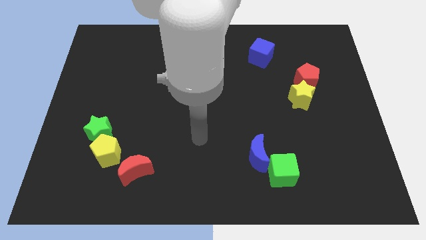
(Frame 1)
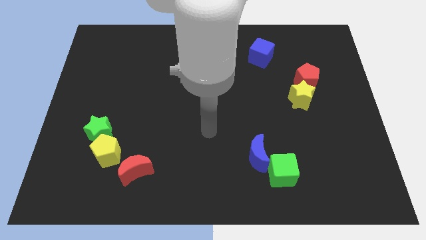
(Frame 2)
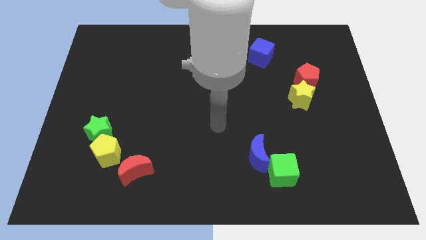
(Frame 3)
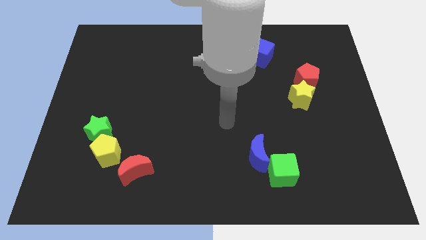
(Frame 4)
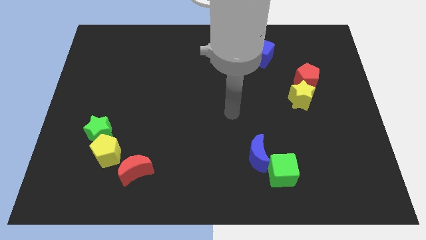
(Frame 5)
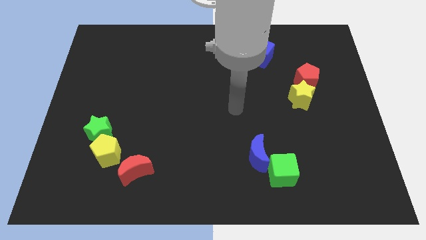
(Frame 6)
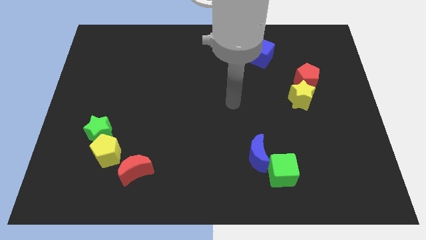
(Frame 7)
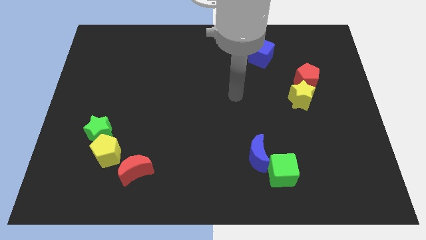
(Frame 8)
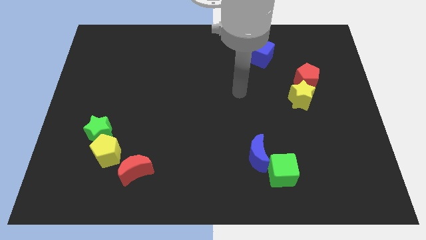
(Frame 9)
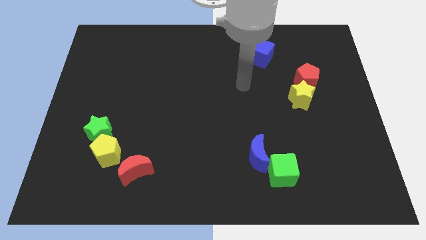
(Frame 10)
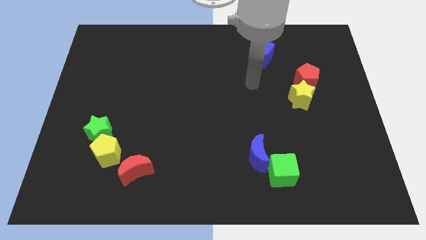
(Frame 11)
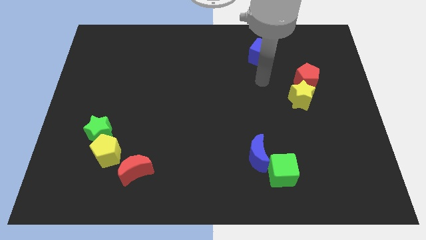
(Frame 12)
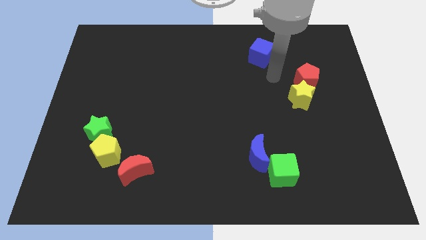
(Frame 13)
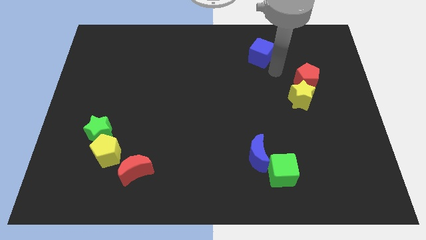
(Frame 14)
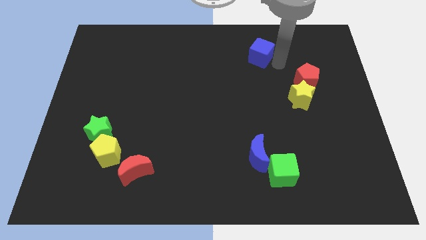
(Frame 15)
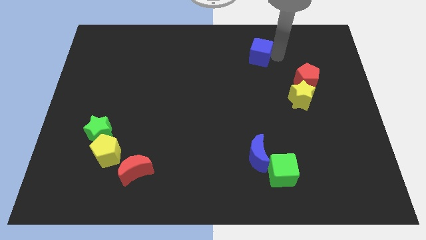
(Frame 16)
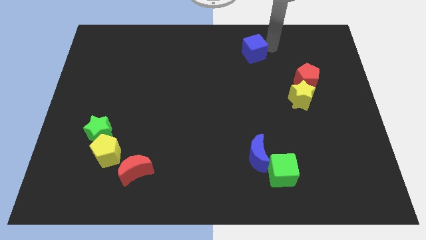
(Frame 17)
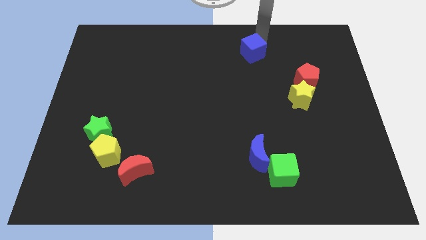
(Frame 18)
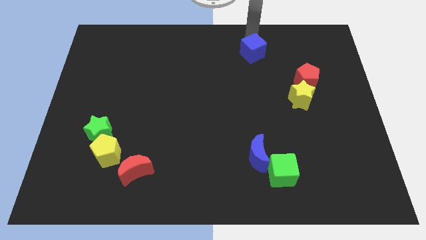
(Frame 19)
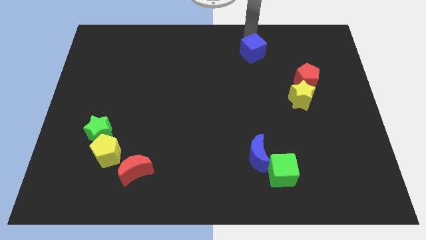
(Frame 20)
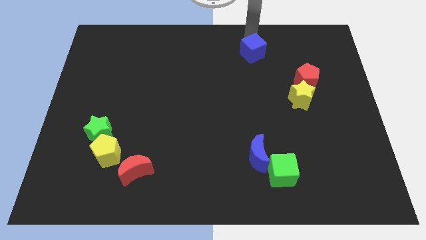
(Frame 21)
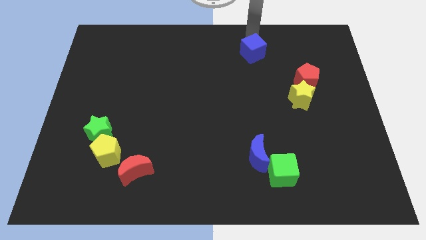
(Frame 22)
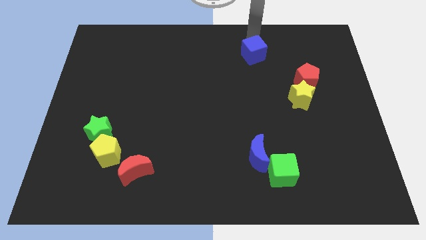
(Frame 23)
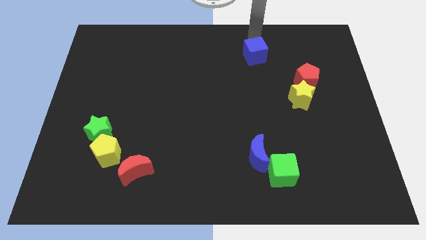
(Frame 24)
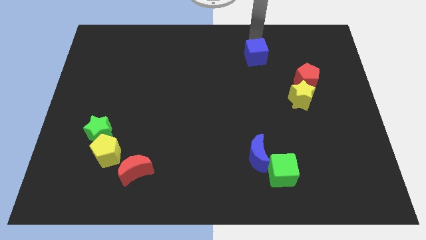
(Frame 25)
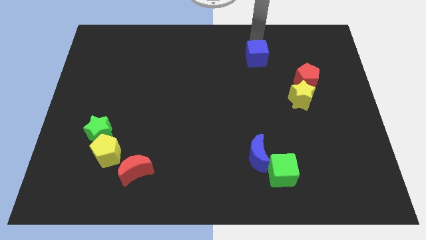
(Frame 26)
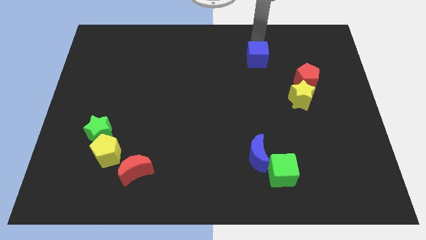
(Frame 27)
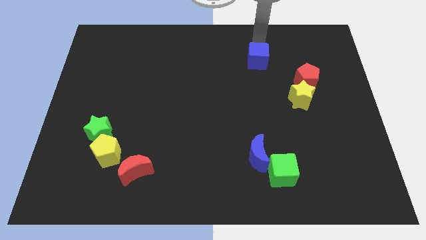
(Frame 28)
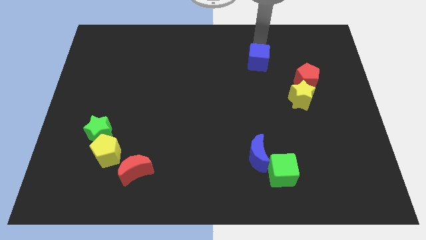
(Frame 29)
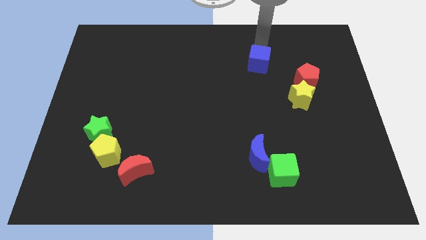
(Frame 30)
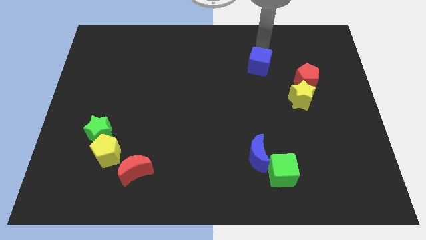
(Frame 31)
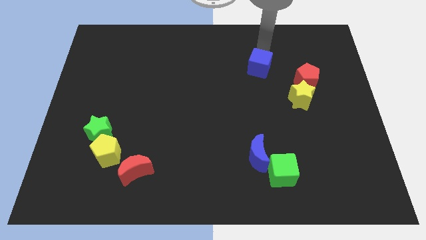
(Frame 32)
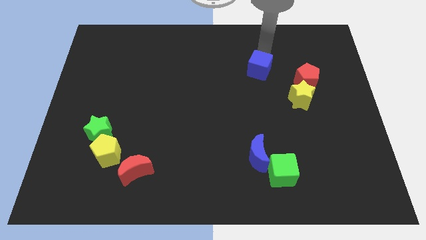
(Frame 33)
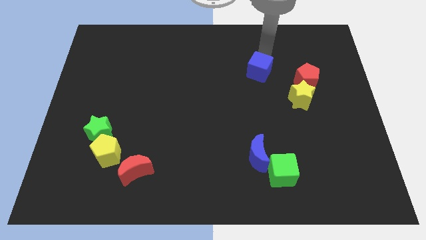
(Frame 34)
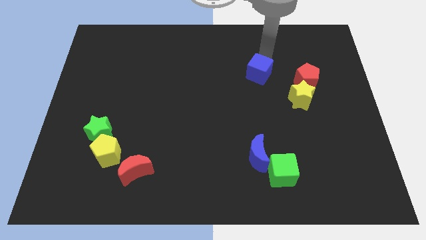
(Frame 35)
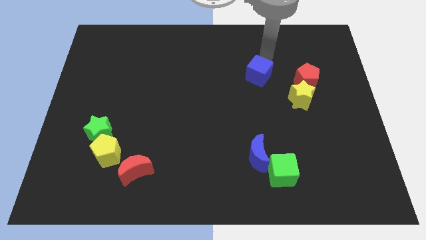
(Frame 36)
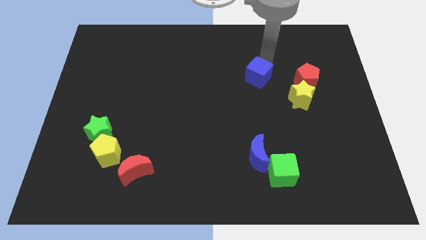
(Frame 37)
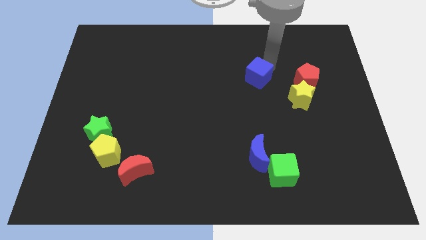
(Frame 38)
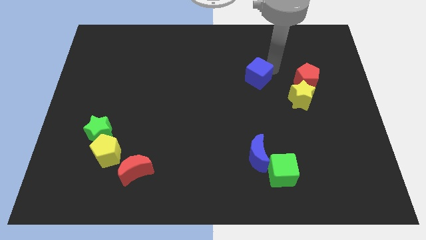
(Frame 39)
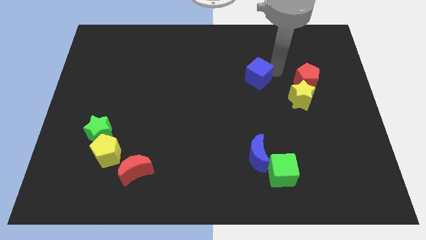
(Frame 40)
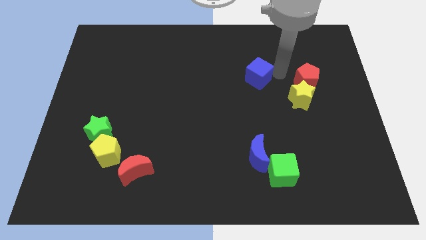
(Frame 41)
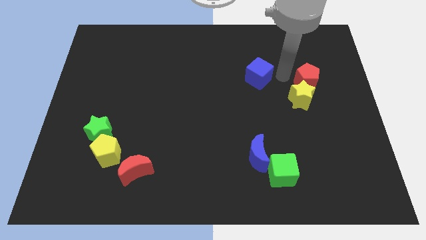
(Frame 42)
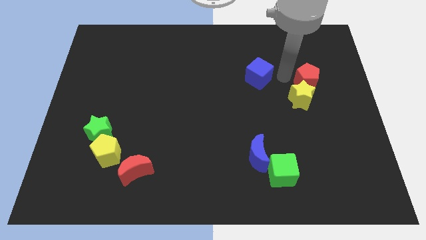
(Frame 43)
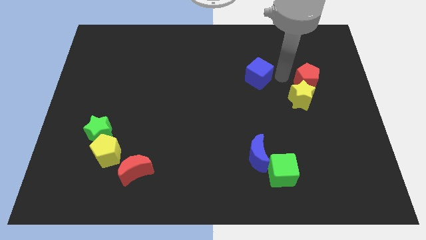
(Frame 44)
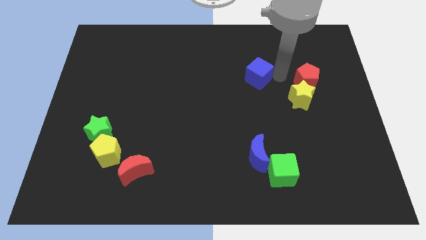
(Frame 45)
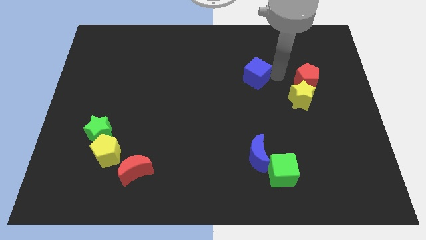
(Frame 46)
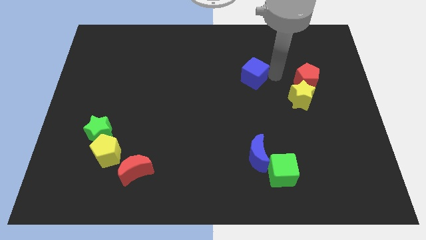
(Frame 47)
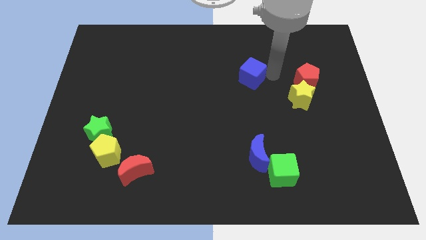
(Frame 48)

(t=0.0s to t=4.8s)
slightly slide the blue cube downwards and then left

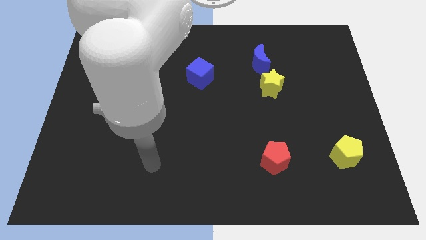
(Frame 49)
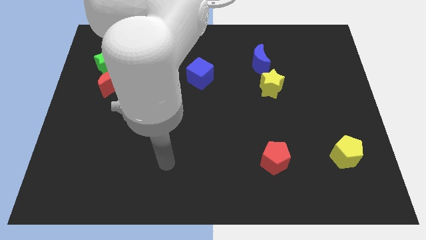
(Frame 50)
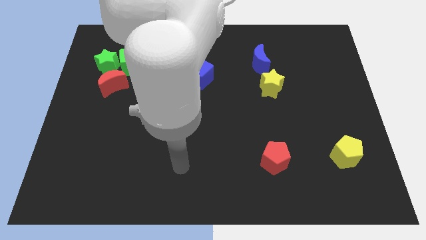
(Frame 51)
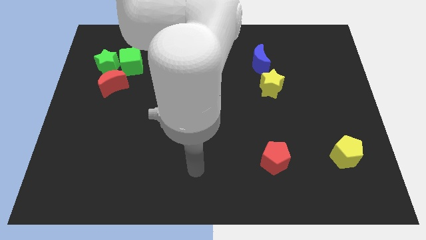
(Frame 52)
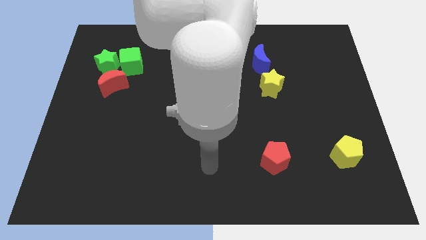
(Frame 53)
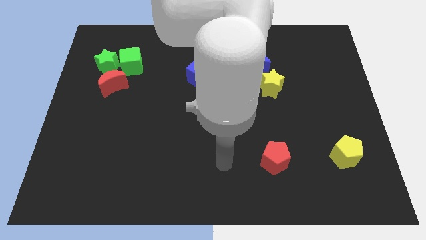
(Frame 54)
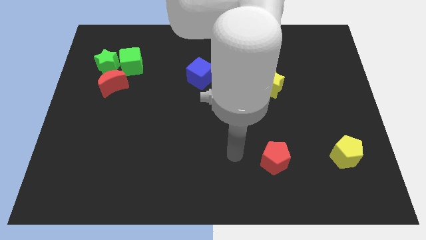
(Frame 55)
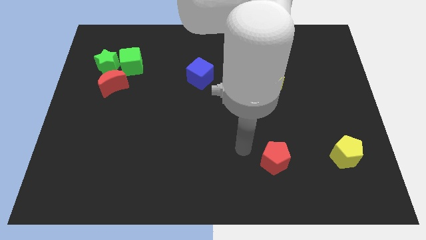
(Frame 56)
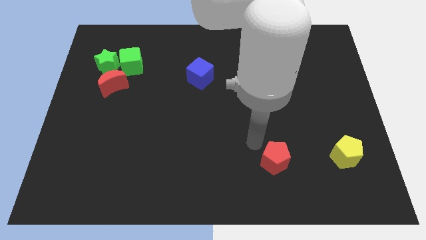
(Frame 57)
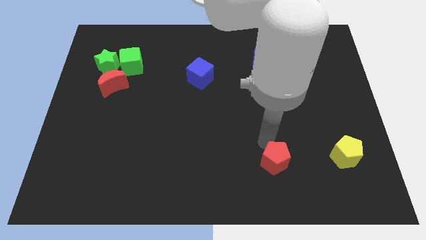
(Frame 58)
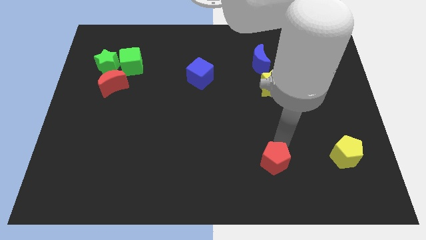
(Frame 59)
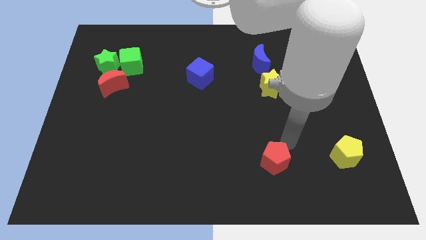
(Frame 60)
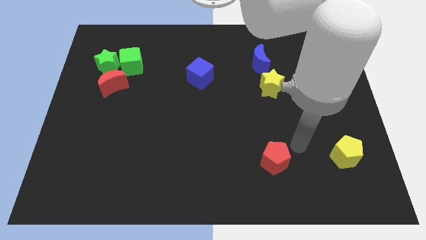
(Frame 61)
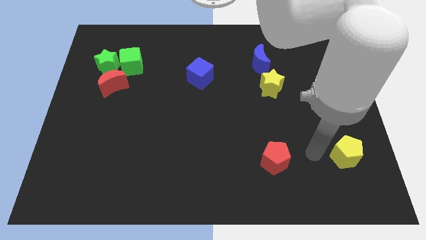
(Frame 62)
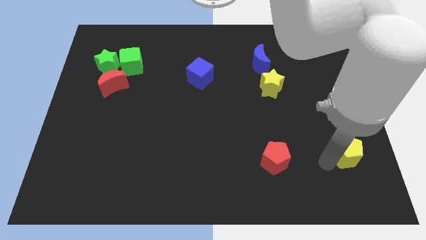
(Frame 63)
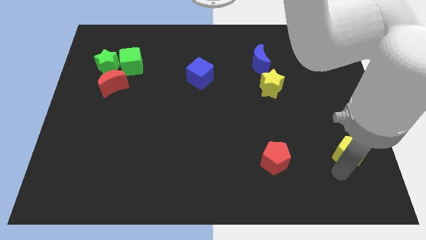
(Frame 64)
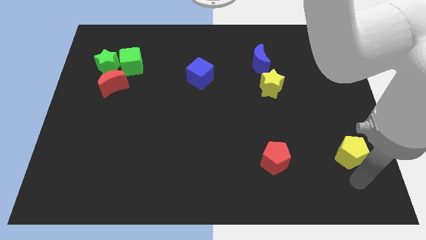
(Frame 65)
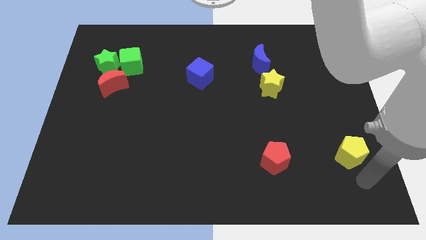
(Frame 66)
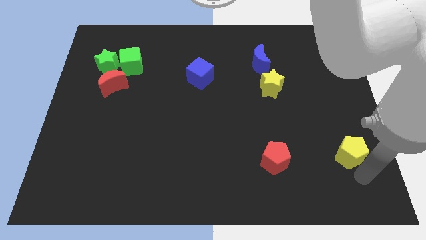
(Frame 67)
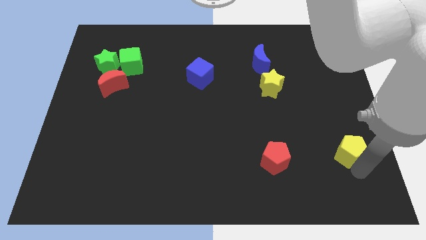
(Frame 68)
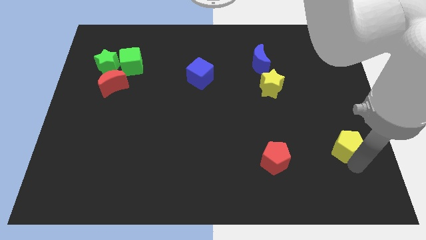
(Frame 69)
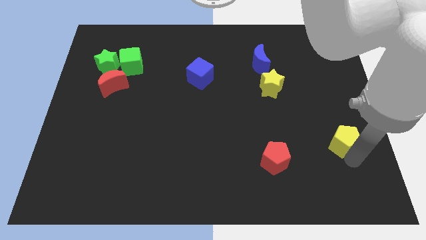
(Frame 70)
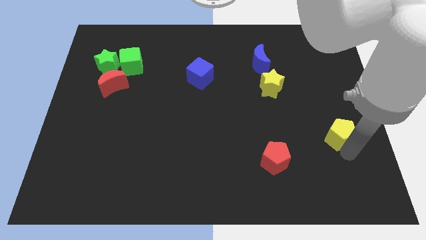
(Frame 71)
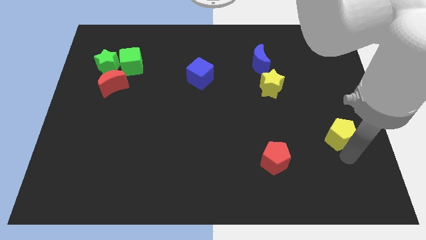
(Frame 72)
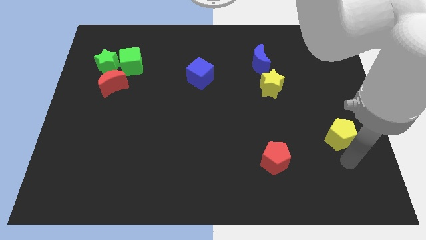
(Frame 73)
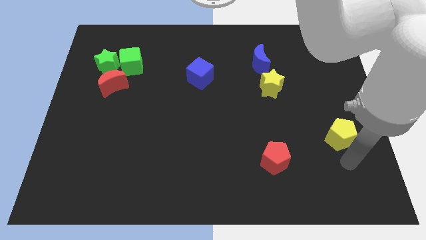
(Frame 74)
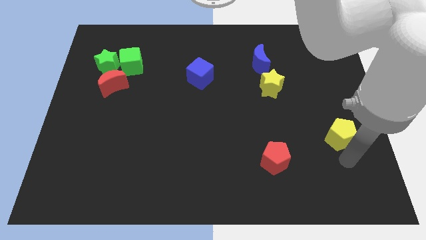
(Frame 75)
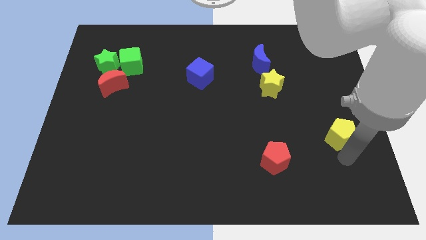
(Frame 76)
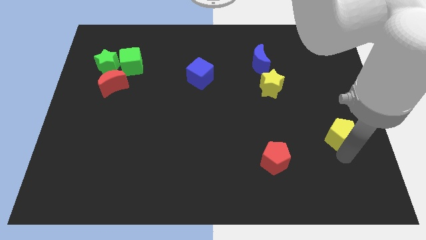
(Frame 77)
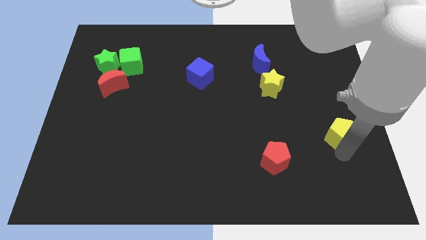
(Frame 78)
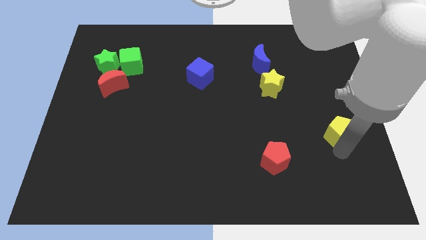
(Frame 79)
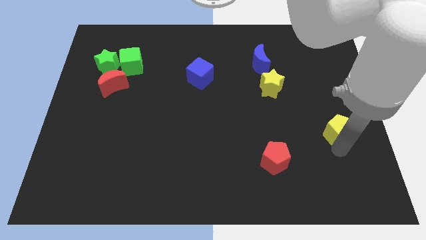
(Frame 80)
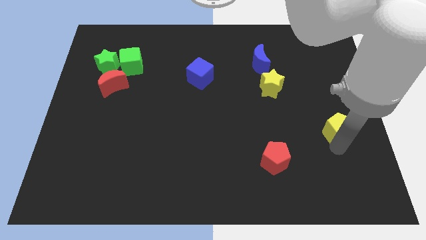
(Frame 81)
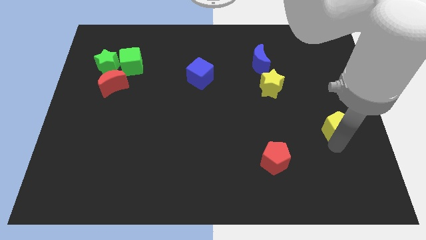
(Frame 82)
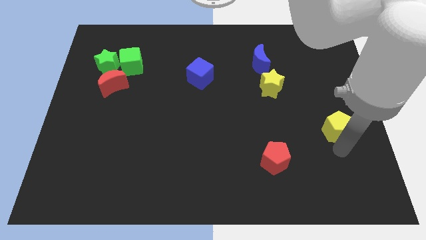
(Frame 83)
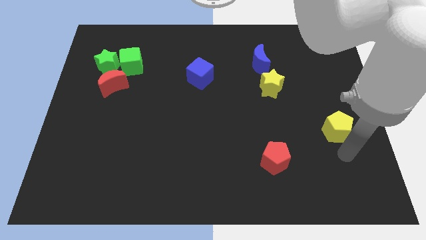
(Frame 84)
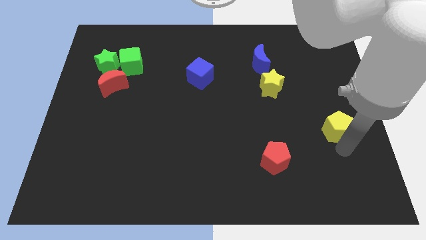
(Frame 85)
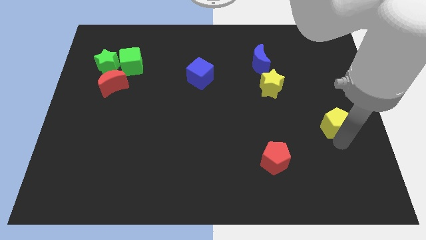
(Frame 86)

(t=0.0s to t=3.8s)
slightly push the yellow pentagon up
